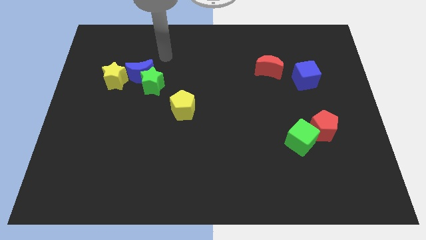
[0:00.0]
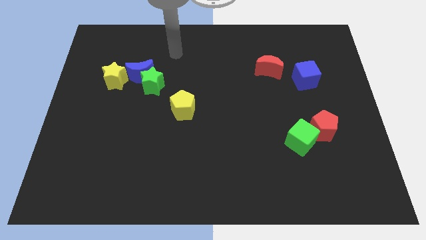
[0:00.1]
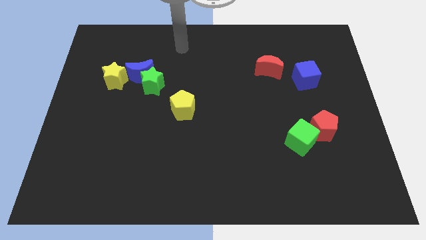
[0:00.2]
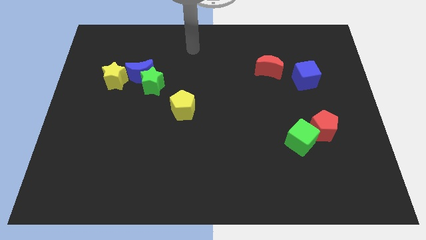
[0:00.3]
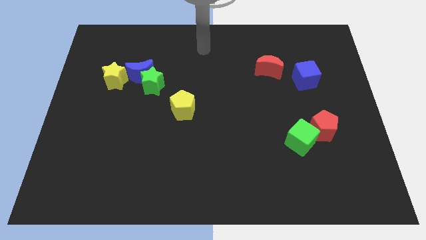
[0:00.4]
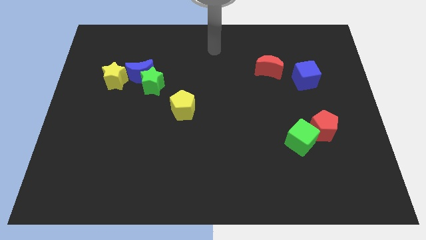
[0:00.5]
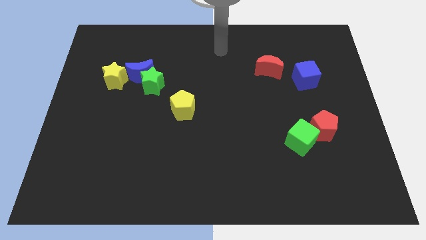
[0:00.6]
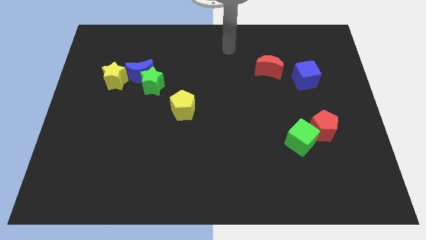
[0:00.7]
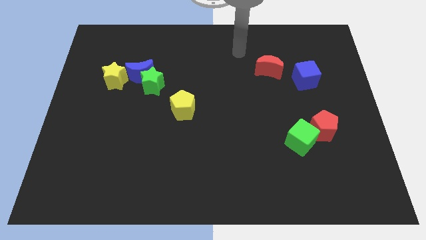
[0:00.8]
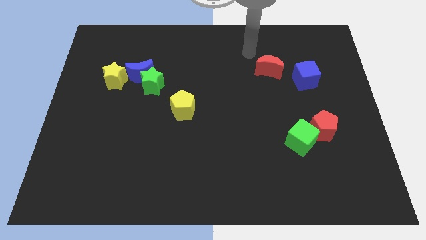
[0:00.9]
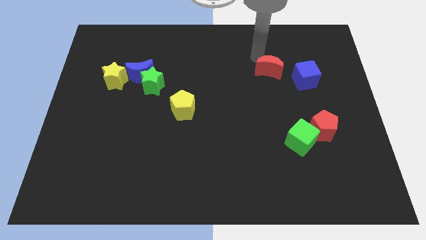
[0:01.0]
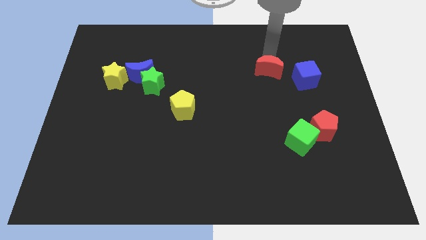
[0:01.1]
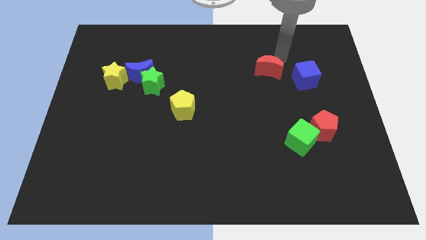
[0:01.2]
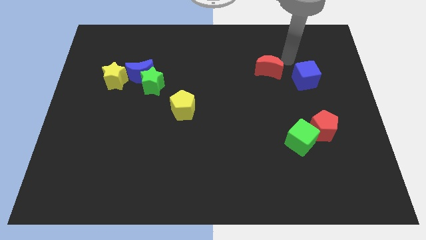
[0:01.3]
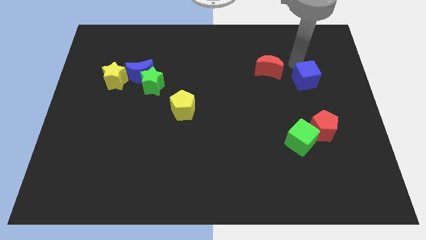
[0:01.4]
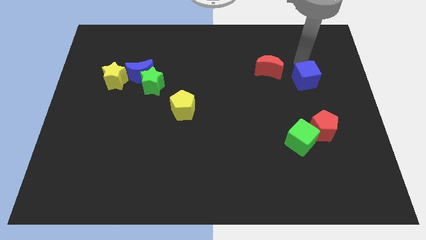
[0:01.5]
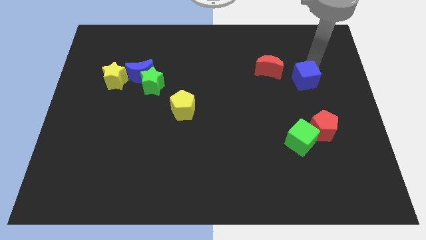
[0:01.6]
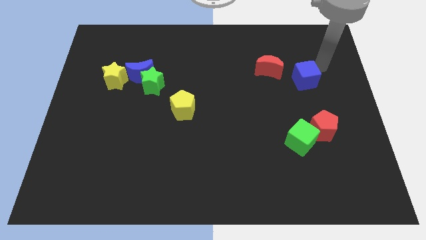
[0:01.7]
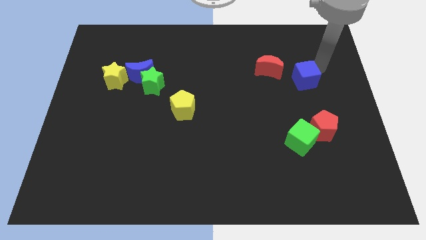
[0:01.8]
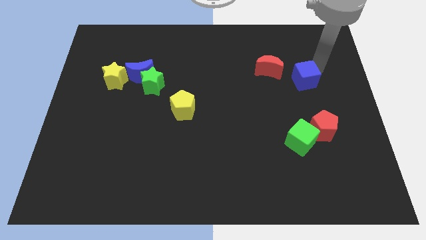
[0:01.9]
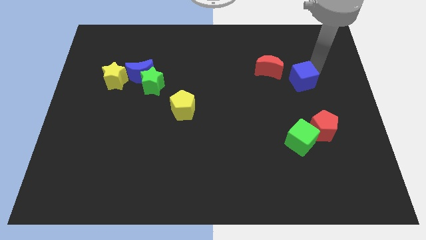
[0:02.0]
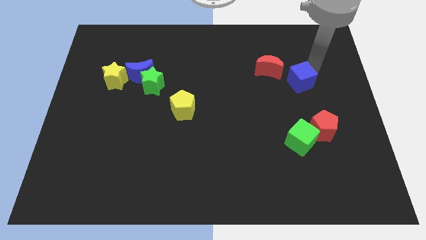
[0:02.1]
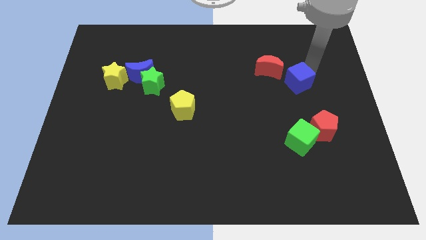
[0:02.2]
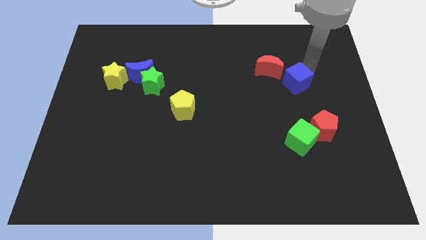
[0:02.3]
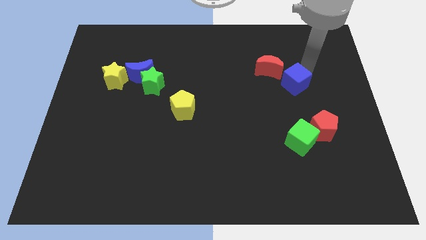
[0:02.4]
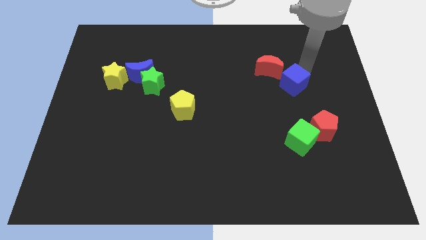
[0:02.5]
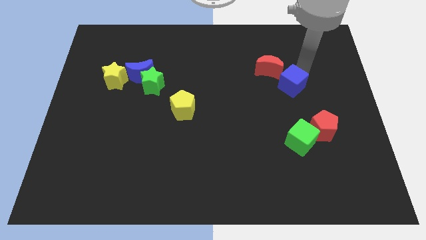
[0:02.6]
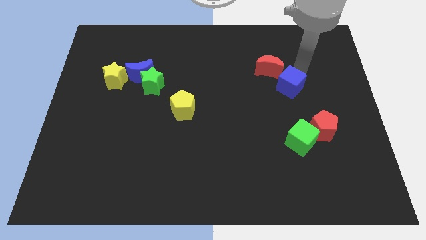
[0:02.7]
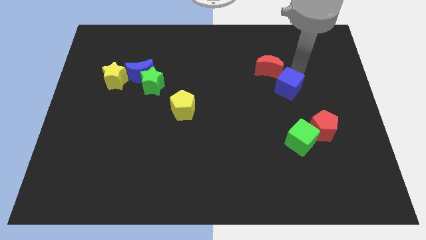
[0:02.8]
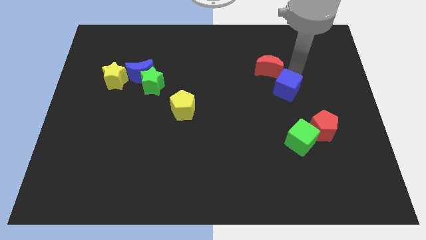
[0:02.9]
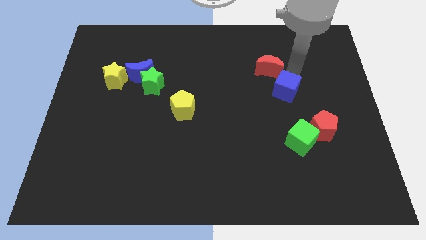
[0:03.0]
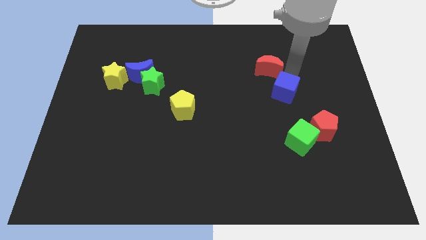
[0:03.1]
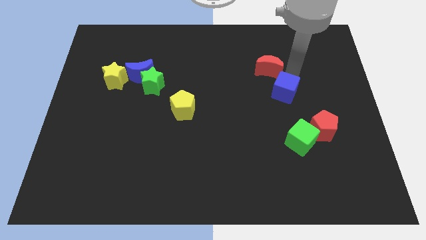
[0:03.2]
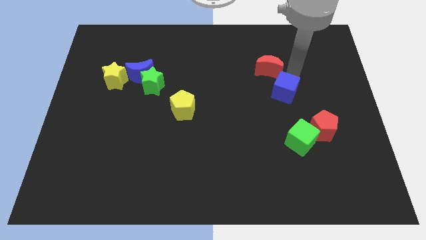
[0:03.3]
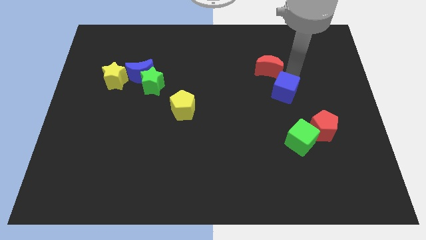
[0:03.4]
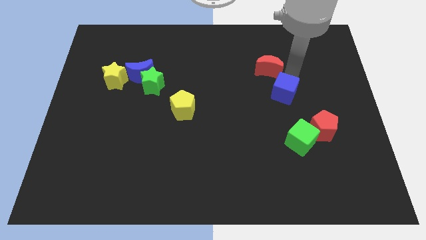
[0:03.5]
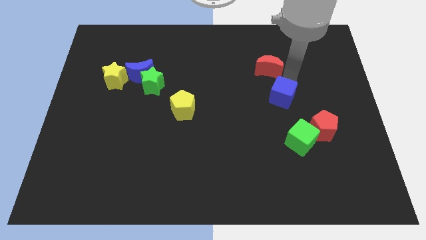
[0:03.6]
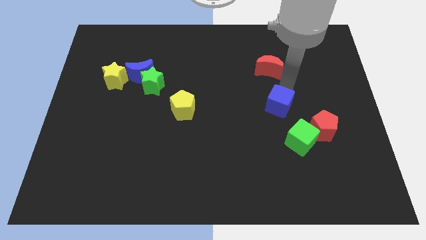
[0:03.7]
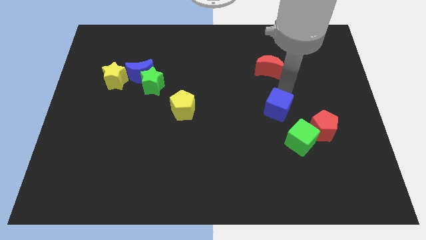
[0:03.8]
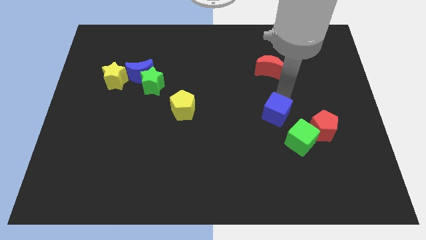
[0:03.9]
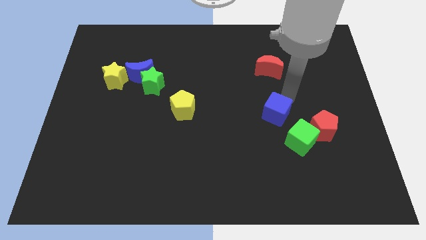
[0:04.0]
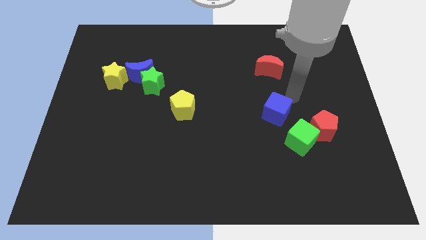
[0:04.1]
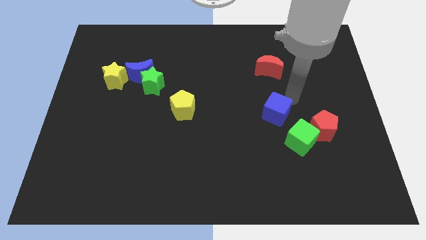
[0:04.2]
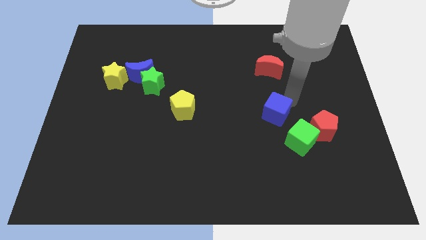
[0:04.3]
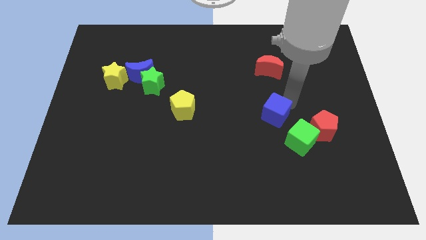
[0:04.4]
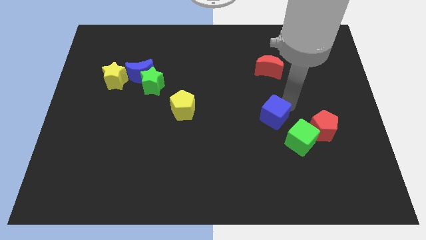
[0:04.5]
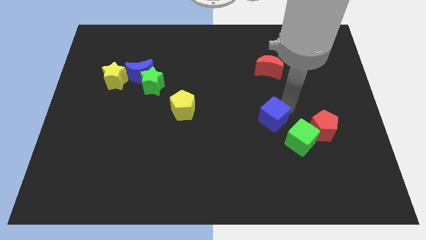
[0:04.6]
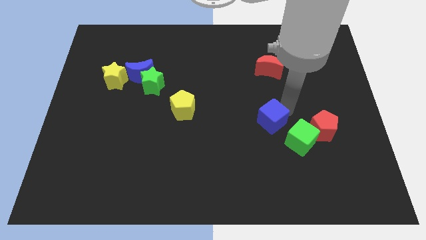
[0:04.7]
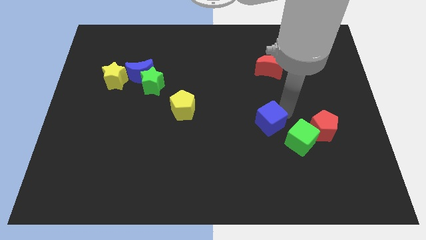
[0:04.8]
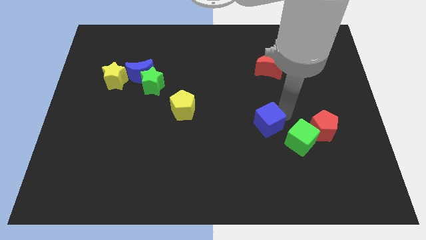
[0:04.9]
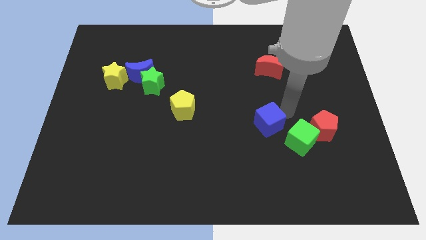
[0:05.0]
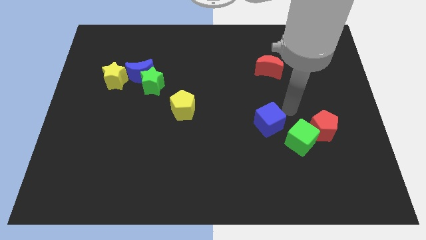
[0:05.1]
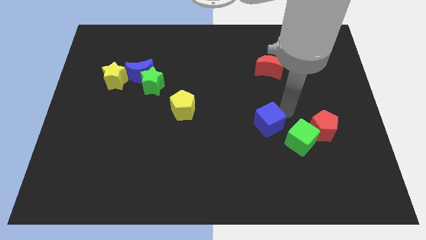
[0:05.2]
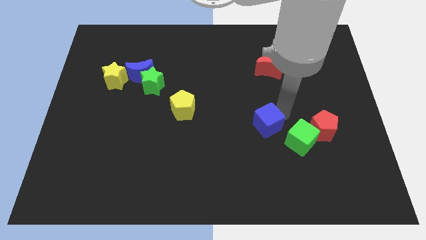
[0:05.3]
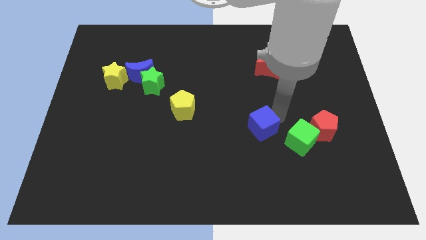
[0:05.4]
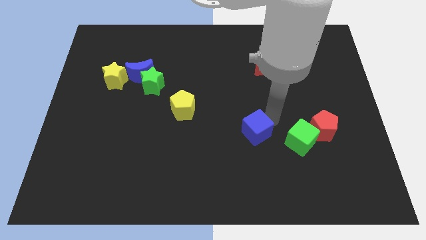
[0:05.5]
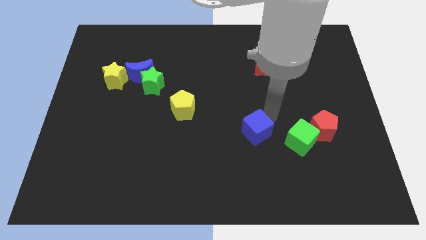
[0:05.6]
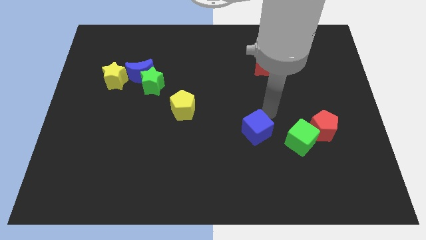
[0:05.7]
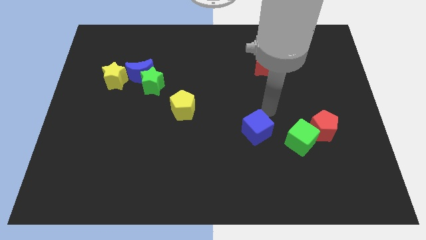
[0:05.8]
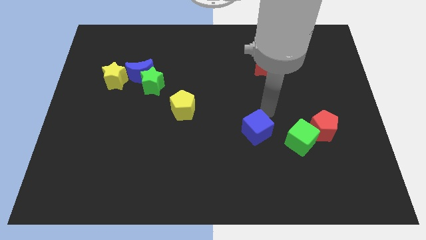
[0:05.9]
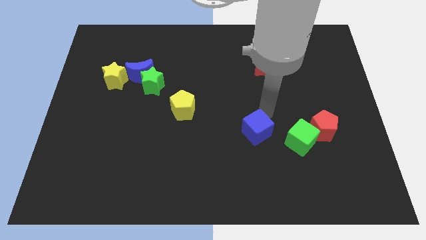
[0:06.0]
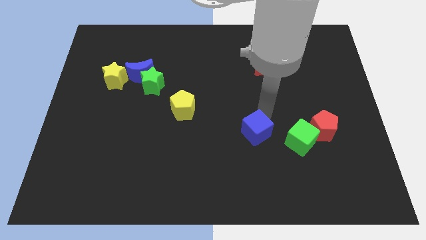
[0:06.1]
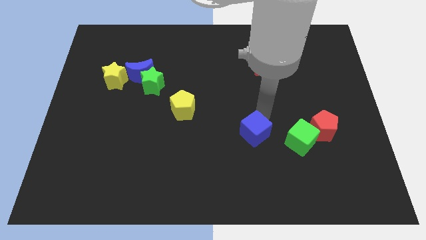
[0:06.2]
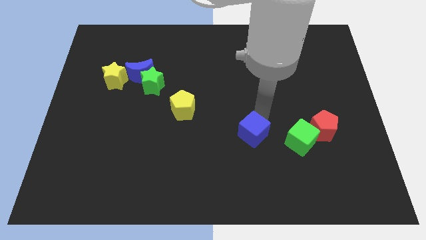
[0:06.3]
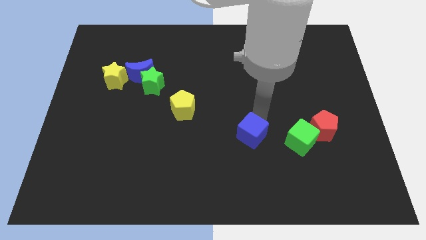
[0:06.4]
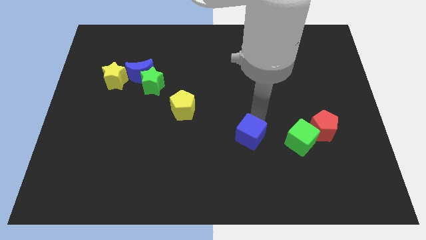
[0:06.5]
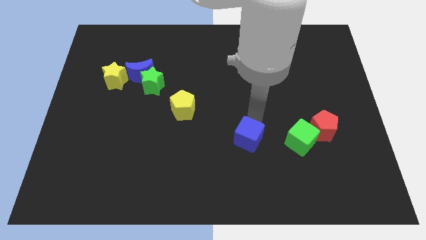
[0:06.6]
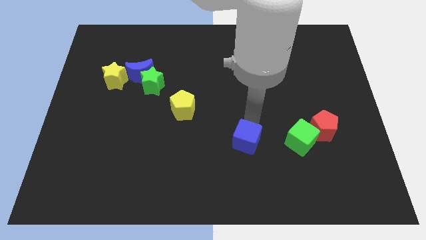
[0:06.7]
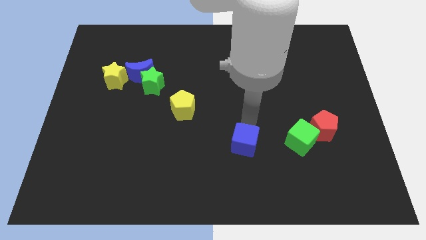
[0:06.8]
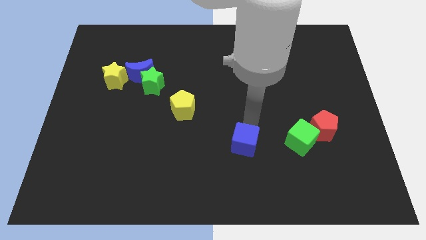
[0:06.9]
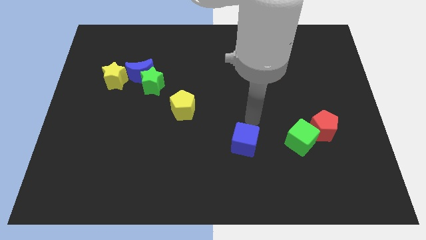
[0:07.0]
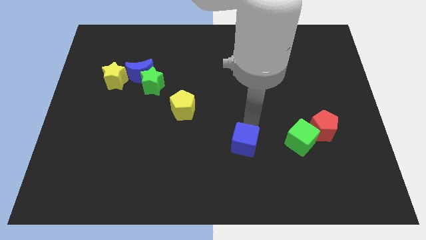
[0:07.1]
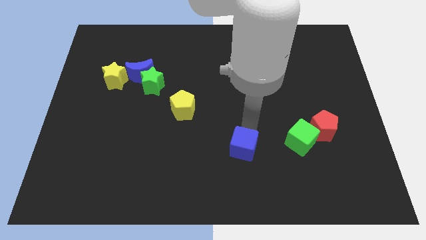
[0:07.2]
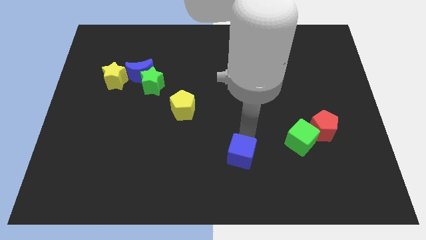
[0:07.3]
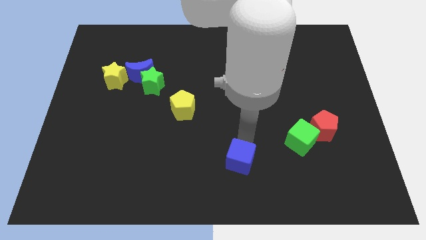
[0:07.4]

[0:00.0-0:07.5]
push the blue cube to the bottom

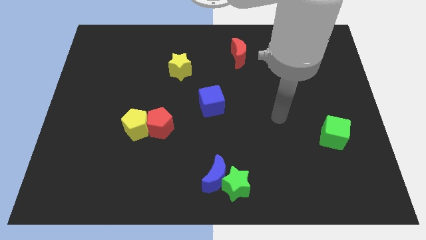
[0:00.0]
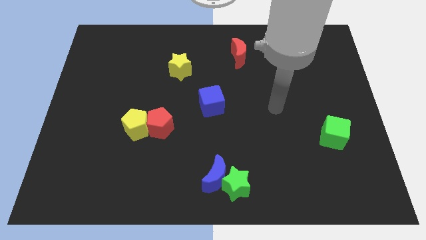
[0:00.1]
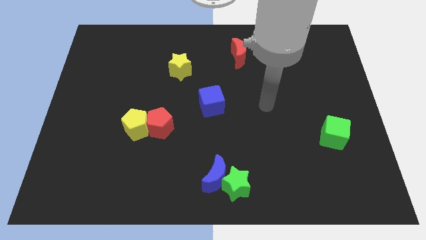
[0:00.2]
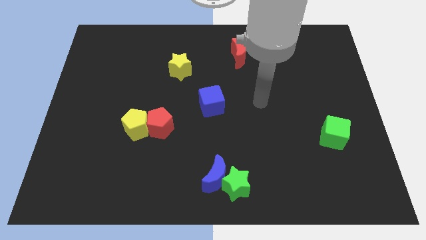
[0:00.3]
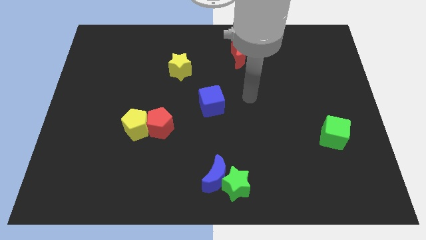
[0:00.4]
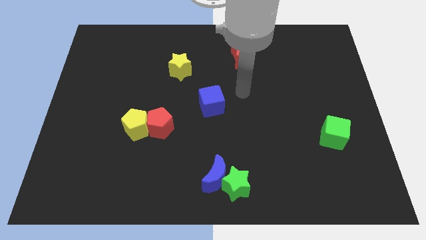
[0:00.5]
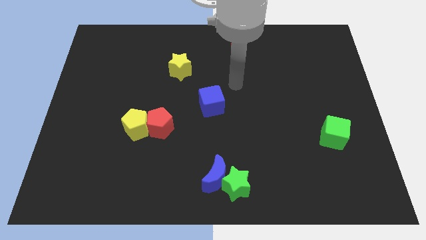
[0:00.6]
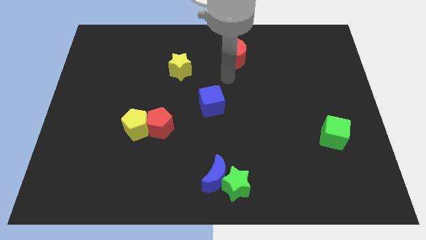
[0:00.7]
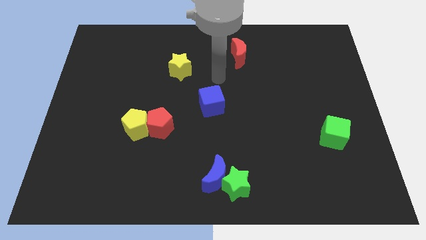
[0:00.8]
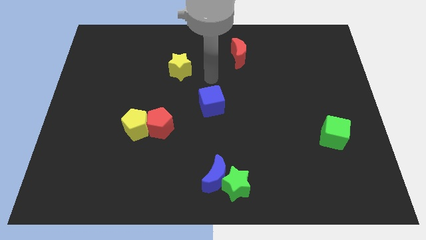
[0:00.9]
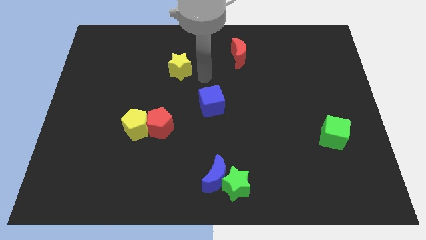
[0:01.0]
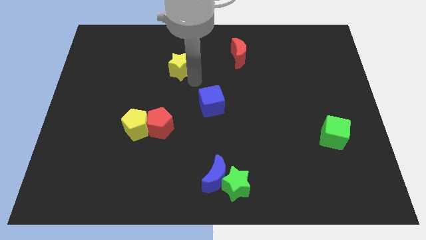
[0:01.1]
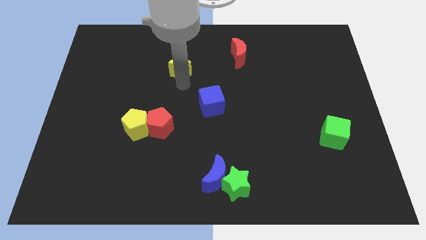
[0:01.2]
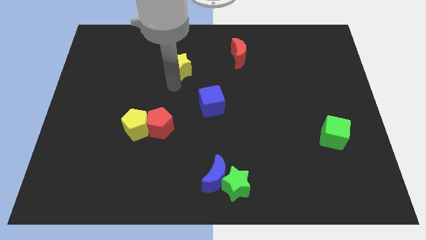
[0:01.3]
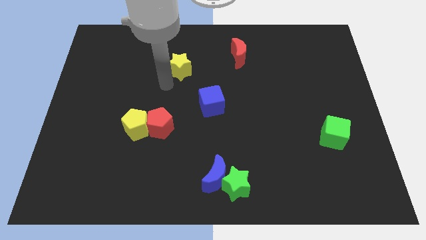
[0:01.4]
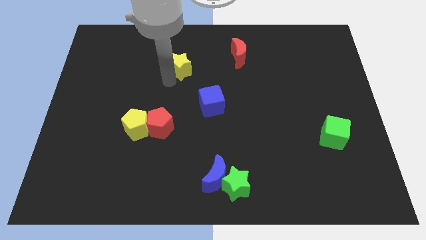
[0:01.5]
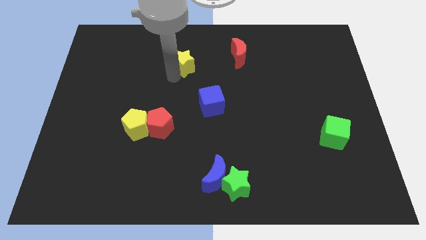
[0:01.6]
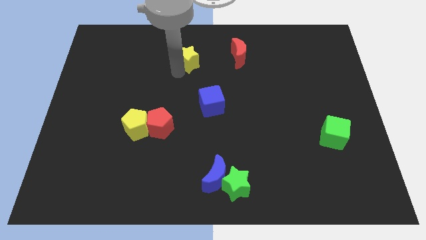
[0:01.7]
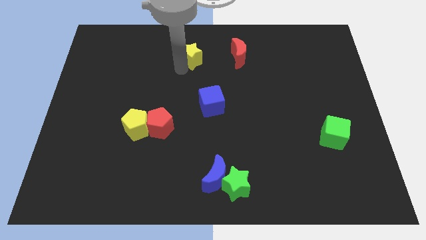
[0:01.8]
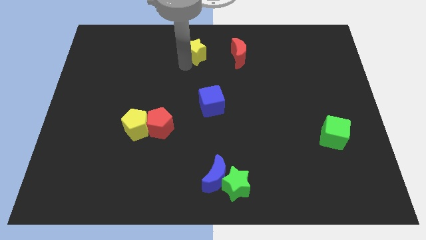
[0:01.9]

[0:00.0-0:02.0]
put the yellow star to the top
